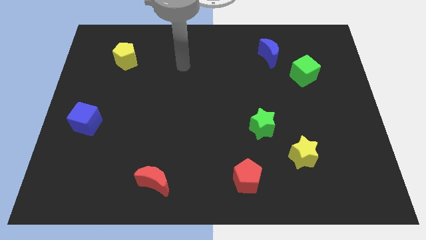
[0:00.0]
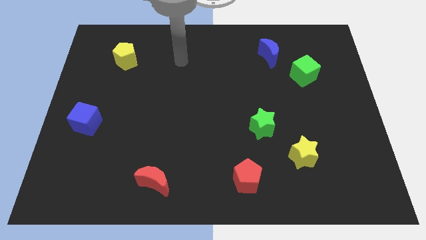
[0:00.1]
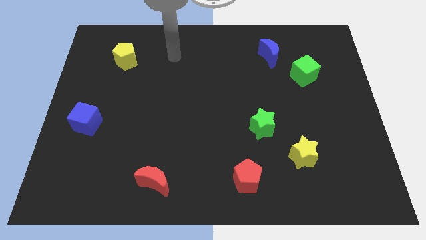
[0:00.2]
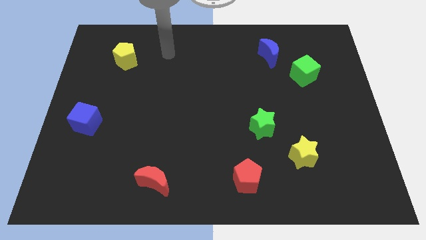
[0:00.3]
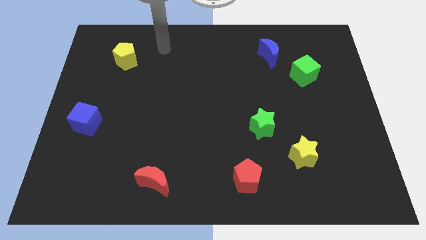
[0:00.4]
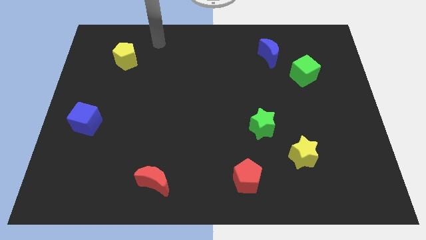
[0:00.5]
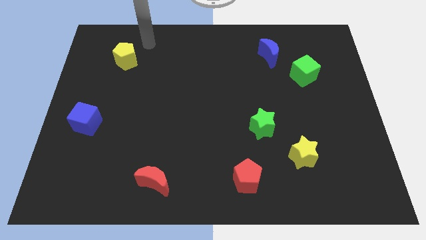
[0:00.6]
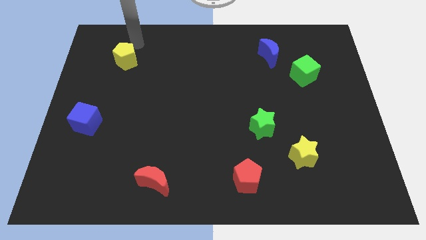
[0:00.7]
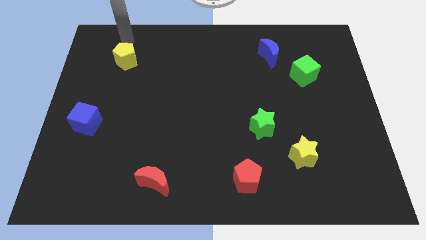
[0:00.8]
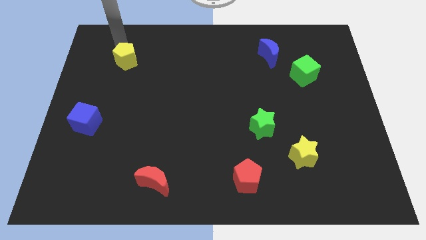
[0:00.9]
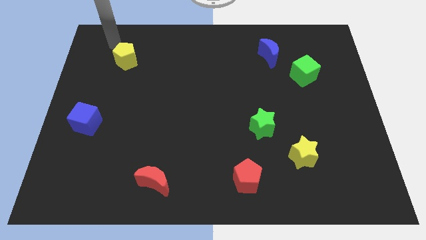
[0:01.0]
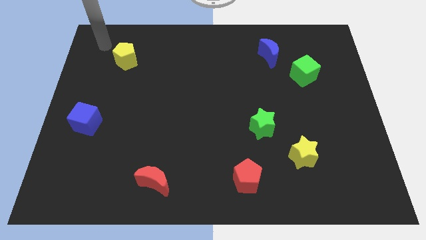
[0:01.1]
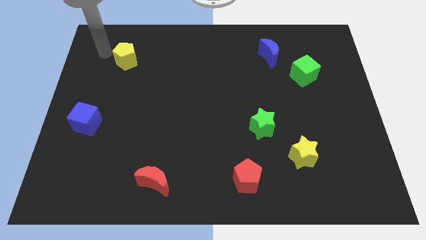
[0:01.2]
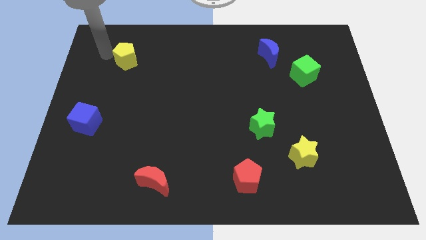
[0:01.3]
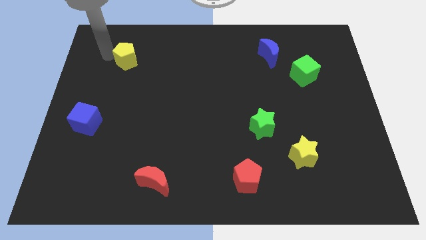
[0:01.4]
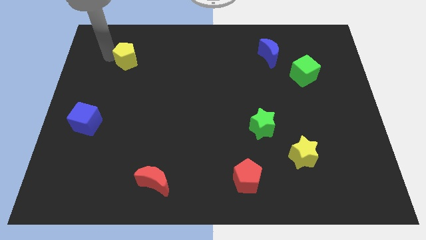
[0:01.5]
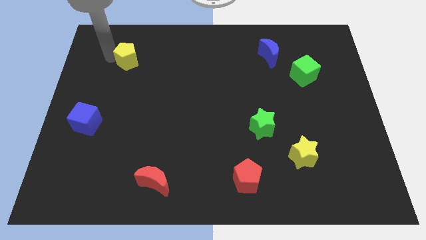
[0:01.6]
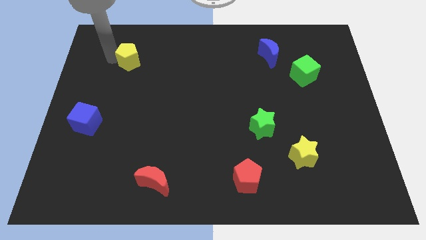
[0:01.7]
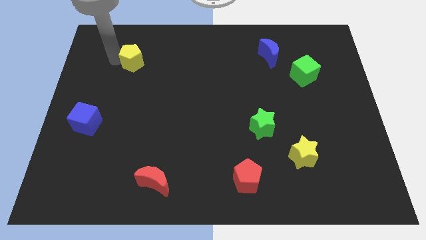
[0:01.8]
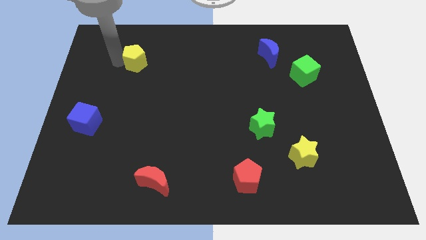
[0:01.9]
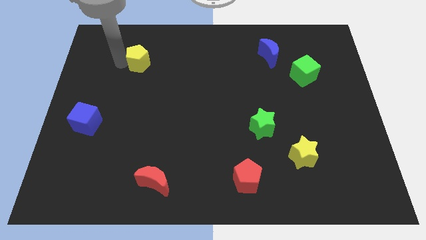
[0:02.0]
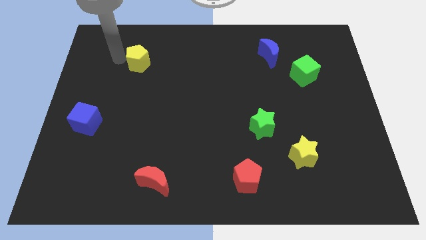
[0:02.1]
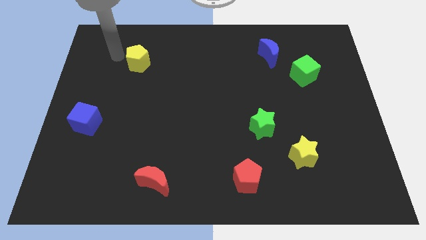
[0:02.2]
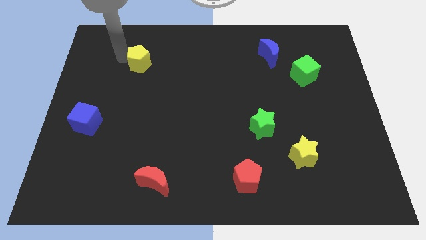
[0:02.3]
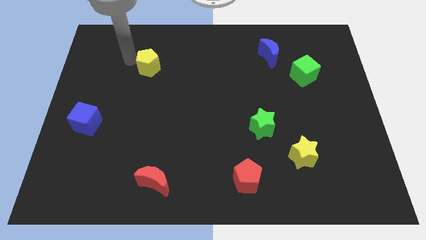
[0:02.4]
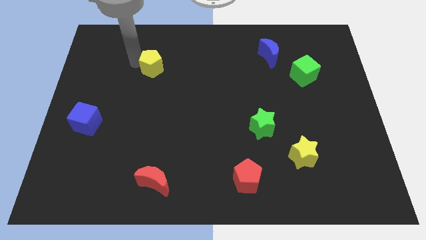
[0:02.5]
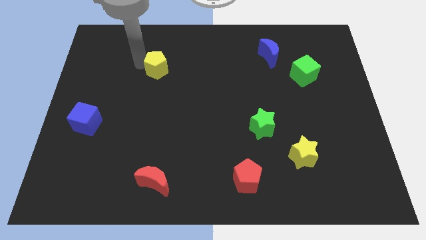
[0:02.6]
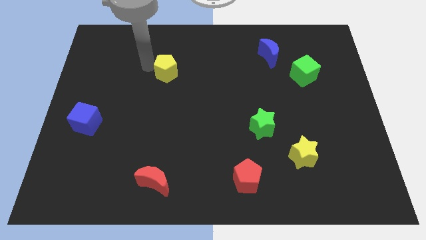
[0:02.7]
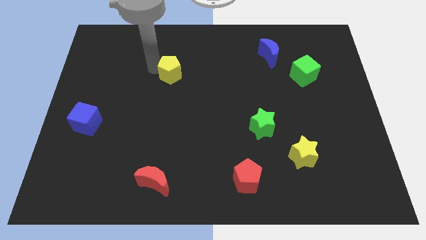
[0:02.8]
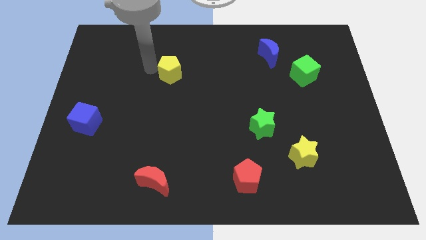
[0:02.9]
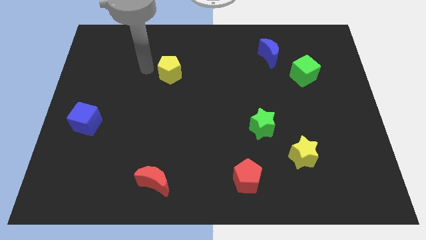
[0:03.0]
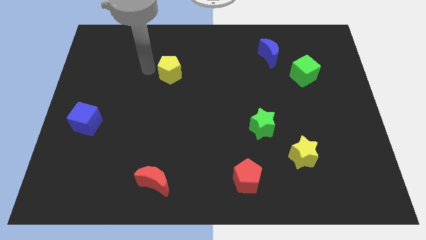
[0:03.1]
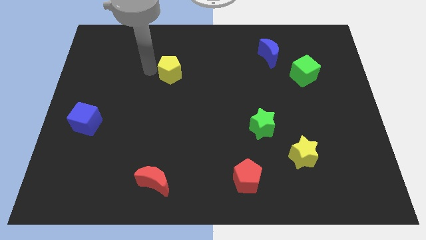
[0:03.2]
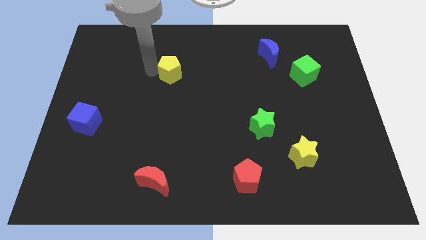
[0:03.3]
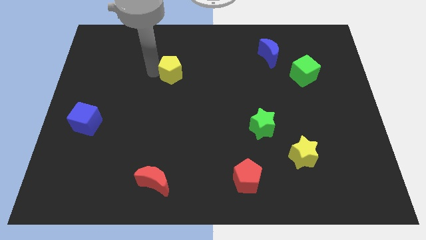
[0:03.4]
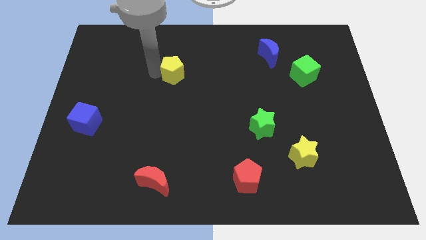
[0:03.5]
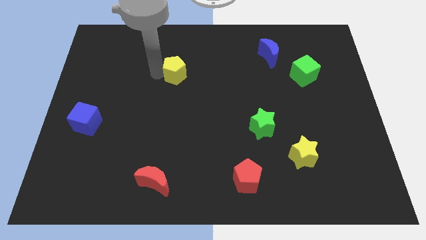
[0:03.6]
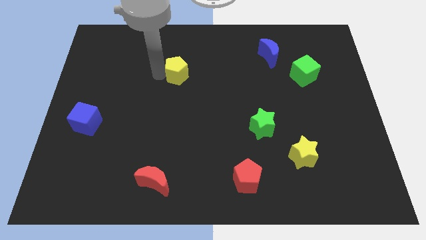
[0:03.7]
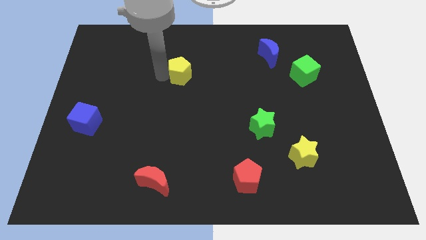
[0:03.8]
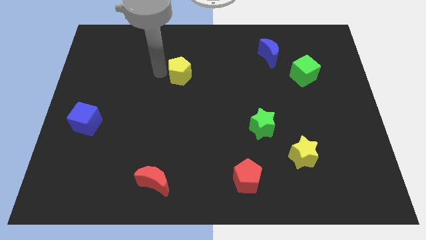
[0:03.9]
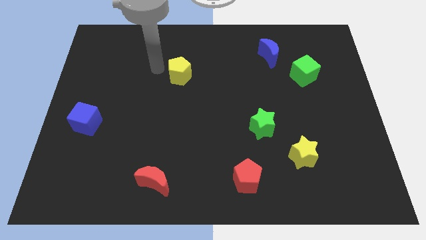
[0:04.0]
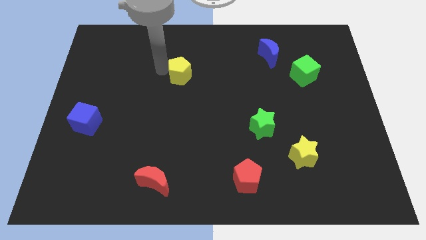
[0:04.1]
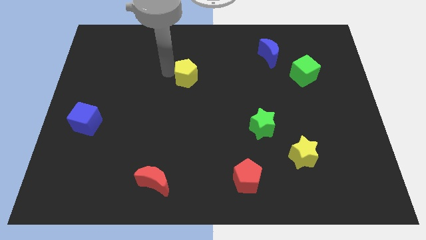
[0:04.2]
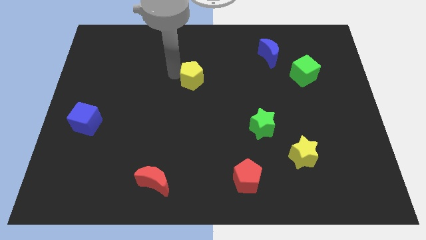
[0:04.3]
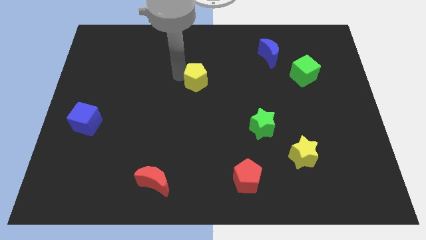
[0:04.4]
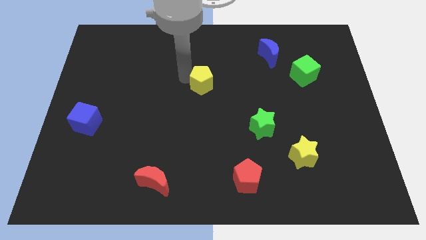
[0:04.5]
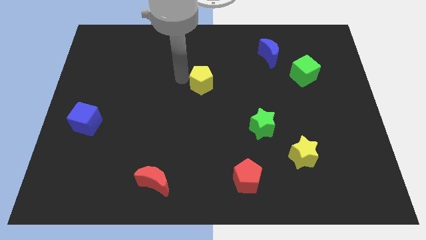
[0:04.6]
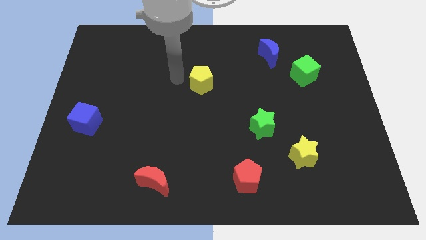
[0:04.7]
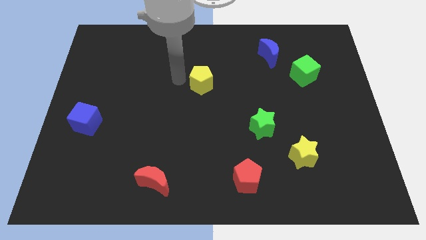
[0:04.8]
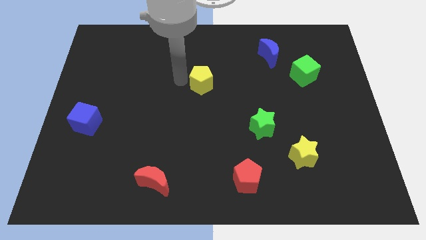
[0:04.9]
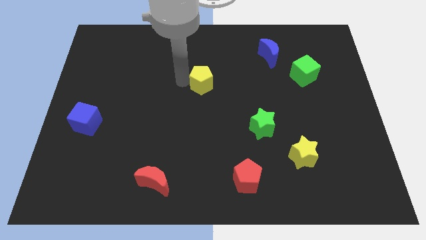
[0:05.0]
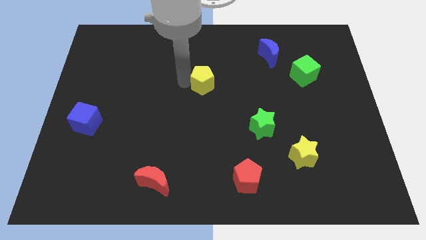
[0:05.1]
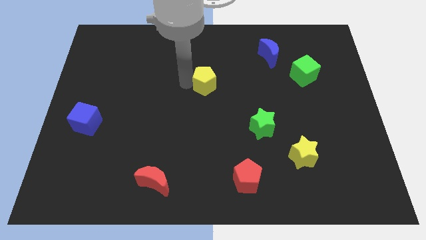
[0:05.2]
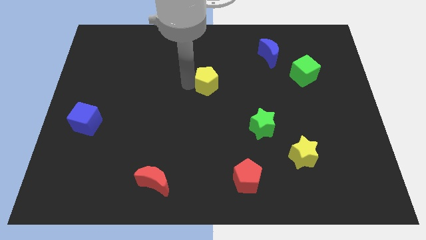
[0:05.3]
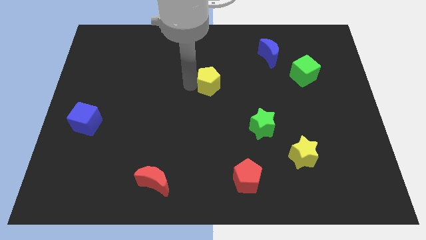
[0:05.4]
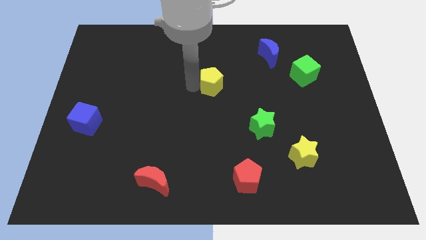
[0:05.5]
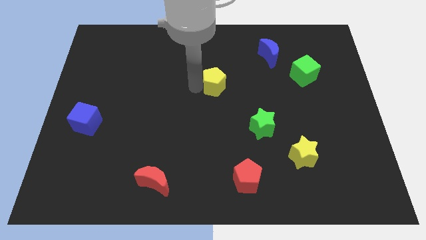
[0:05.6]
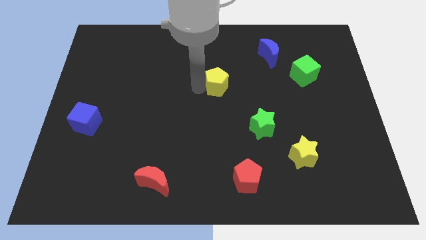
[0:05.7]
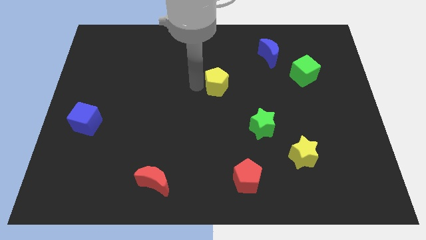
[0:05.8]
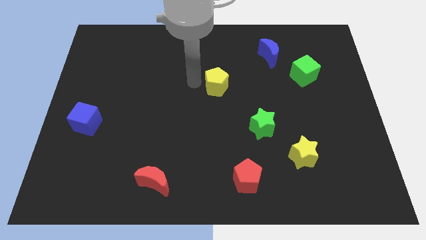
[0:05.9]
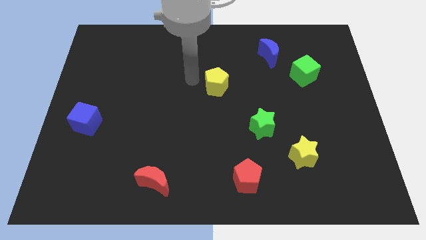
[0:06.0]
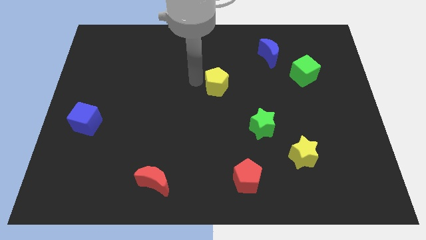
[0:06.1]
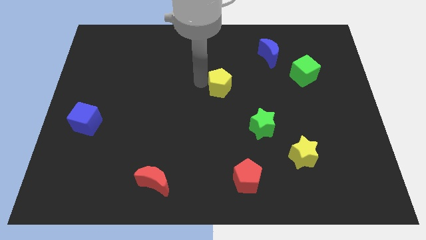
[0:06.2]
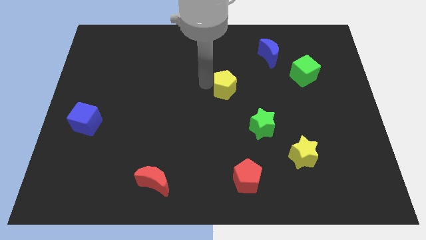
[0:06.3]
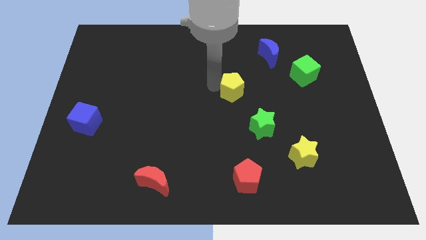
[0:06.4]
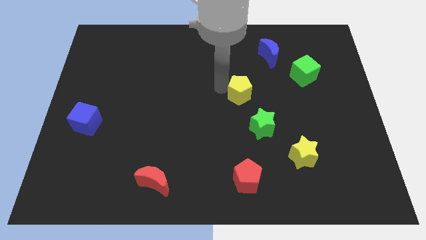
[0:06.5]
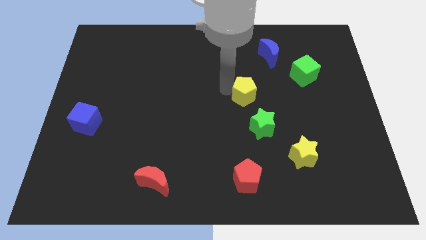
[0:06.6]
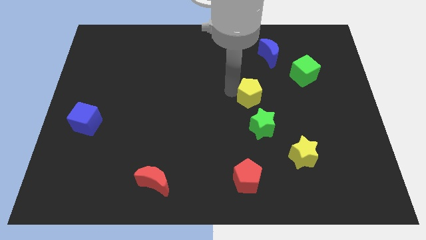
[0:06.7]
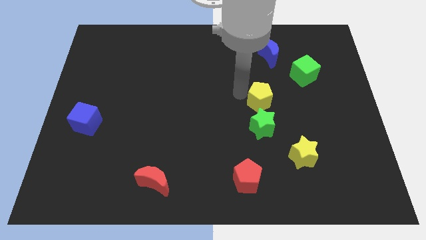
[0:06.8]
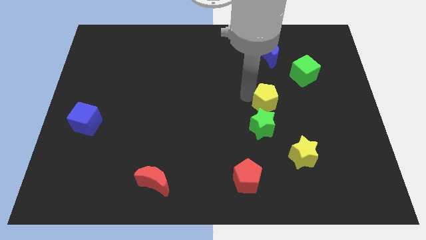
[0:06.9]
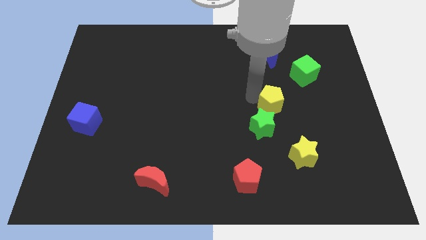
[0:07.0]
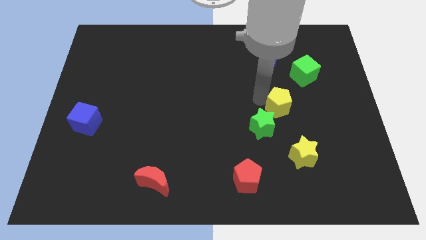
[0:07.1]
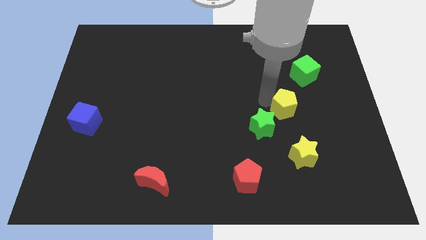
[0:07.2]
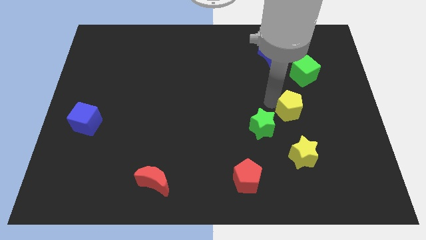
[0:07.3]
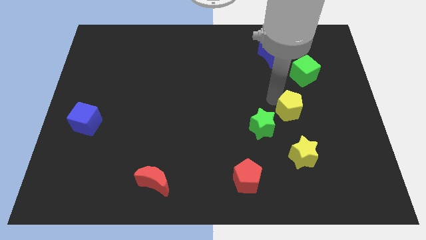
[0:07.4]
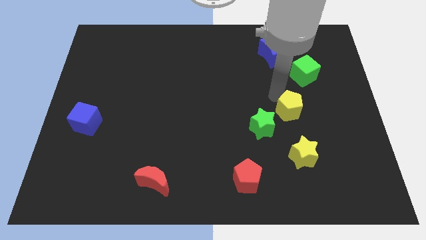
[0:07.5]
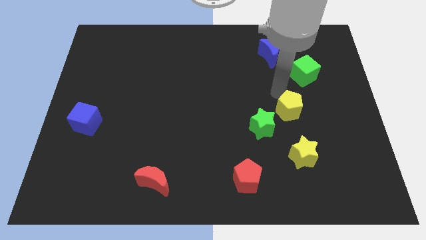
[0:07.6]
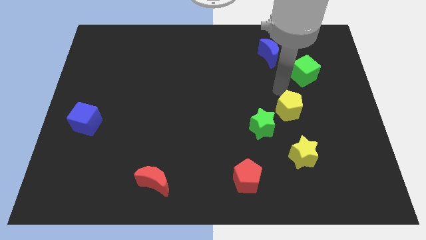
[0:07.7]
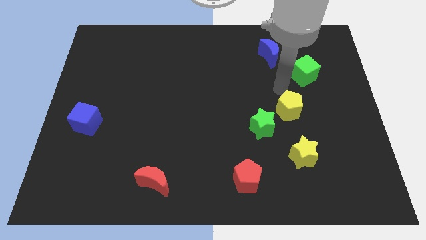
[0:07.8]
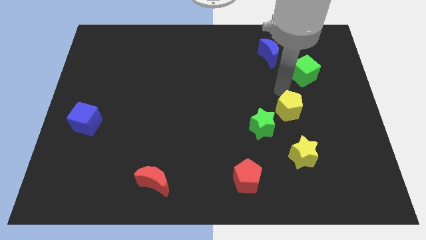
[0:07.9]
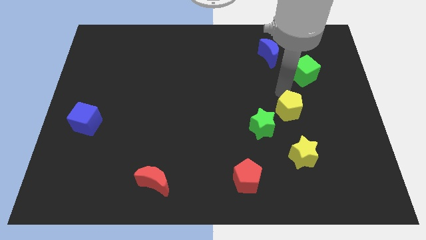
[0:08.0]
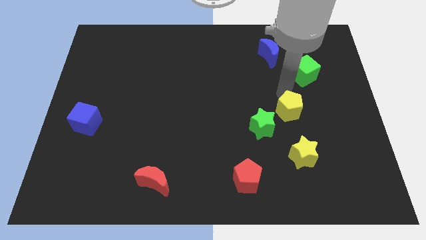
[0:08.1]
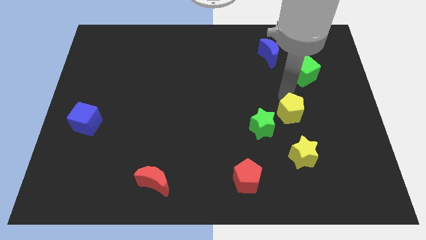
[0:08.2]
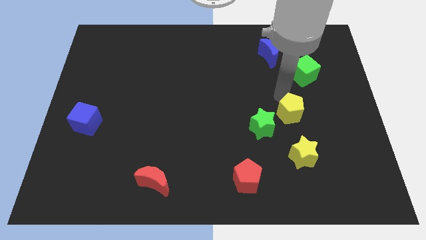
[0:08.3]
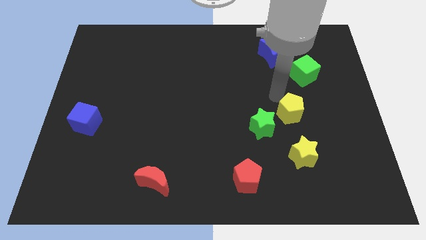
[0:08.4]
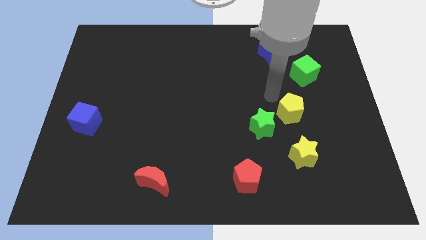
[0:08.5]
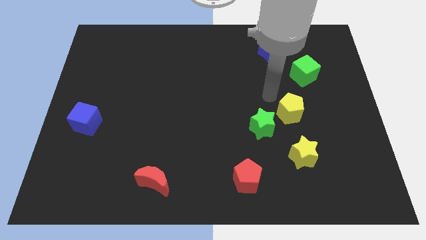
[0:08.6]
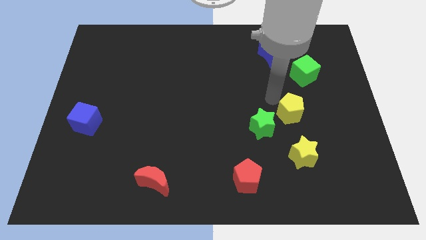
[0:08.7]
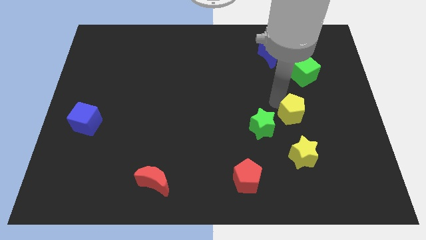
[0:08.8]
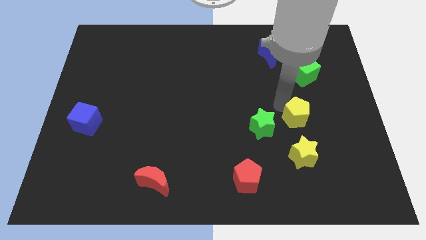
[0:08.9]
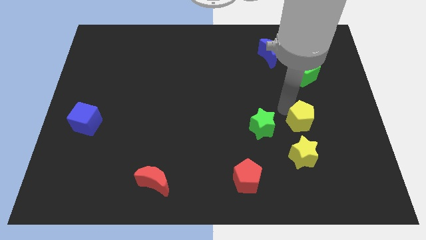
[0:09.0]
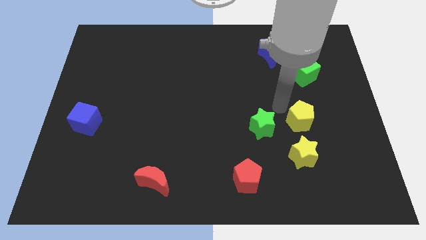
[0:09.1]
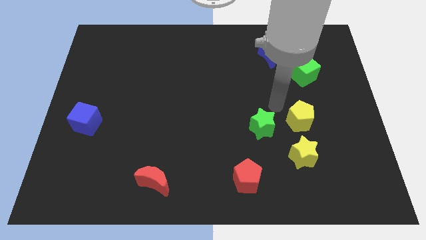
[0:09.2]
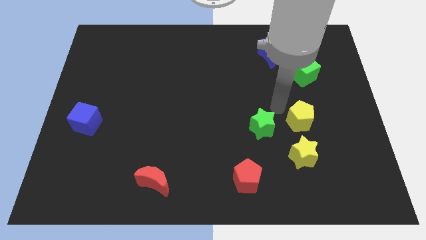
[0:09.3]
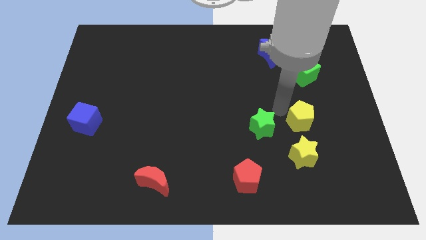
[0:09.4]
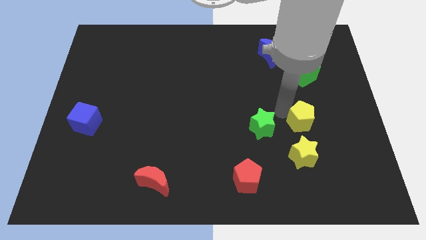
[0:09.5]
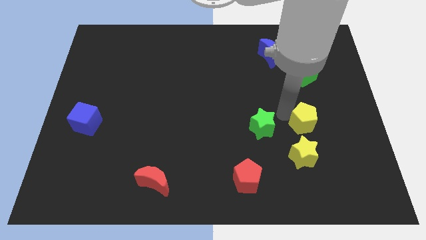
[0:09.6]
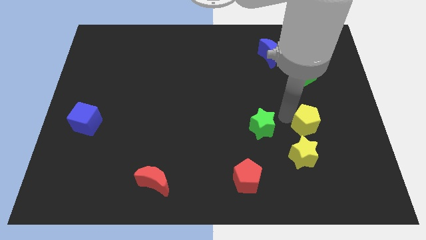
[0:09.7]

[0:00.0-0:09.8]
push the yellow pentagon diagonally up and to the right of the yellow star
